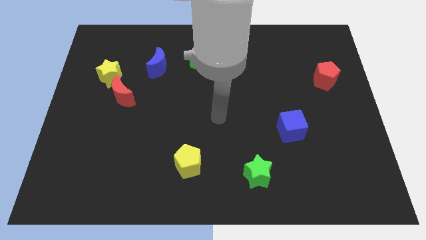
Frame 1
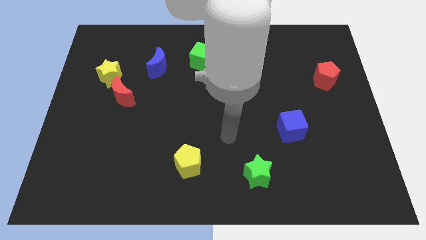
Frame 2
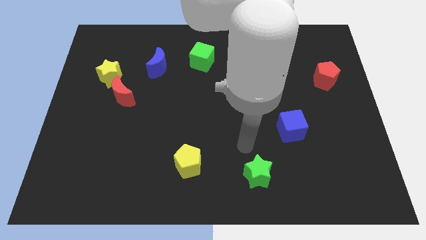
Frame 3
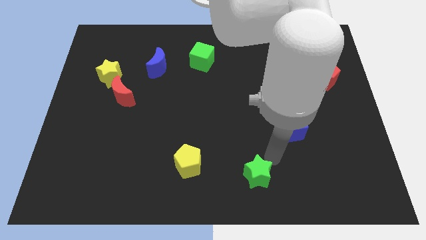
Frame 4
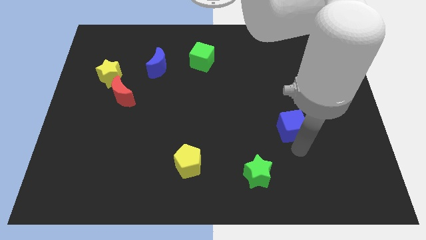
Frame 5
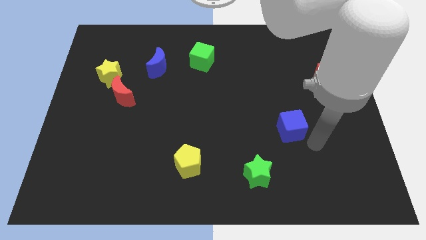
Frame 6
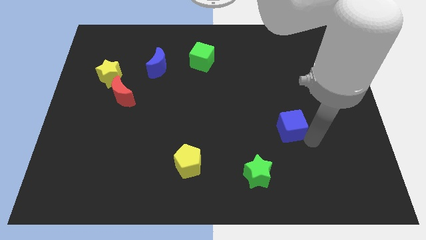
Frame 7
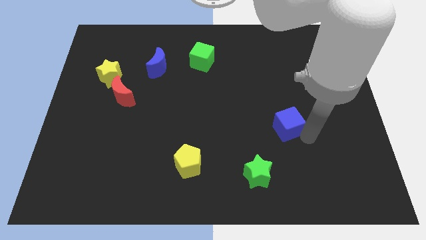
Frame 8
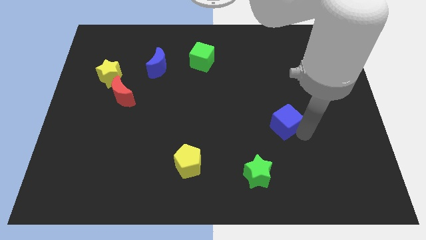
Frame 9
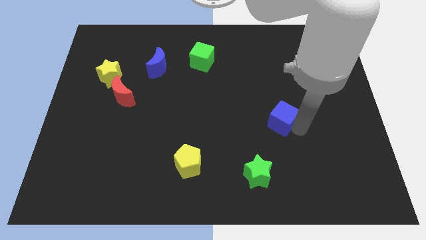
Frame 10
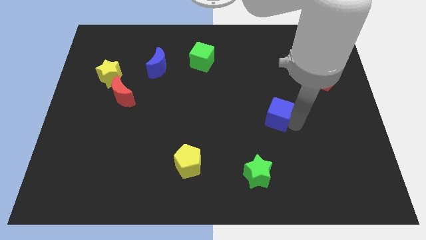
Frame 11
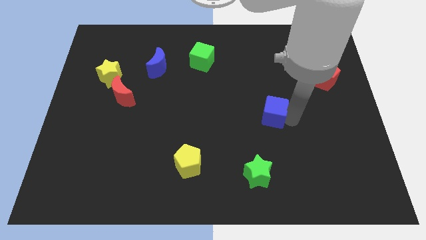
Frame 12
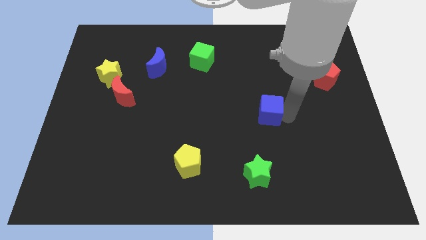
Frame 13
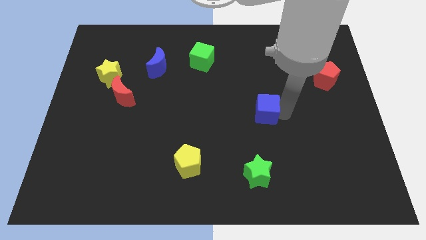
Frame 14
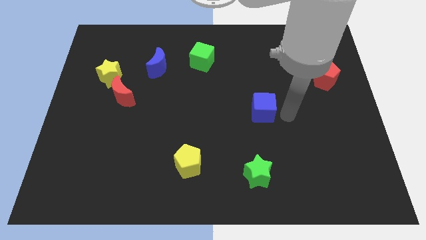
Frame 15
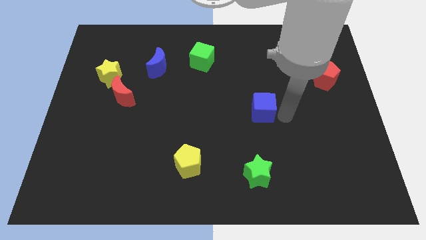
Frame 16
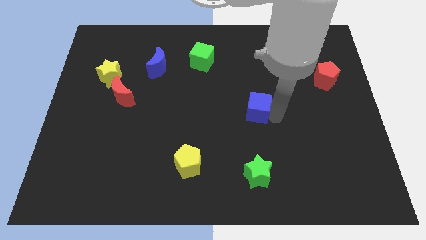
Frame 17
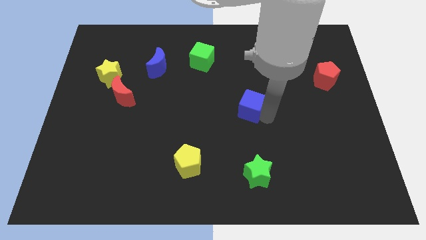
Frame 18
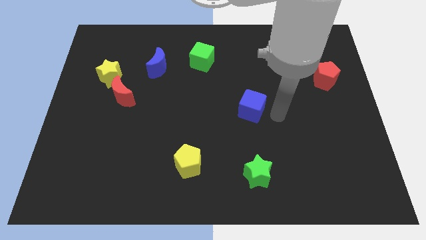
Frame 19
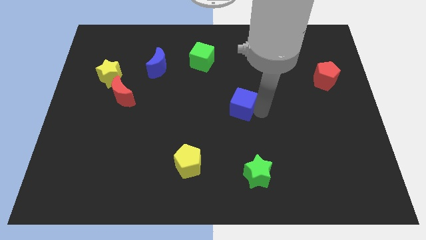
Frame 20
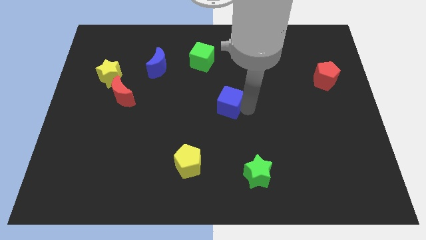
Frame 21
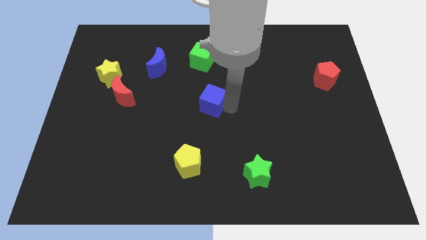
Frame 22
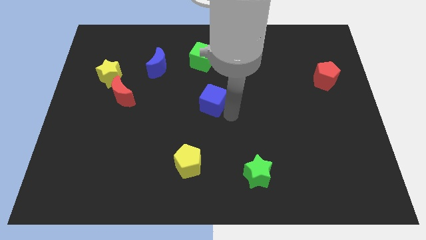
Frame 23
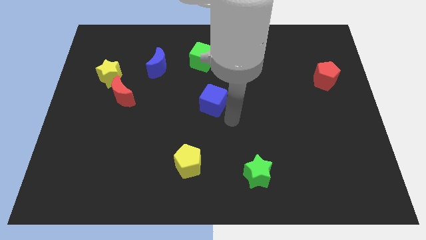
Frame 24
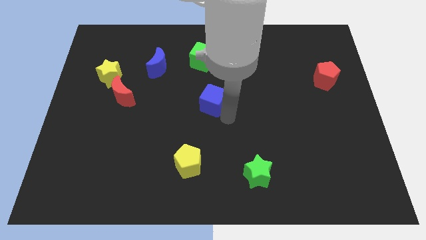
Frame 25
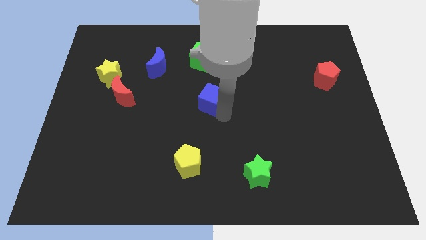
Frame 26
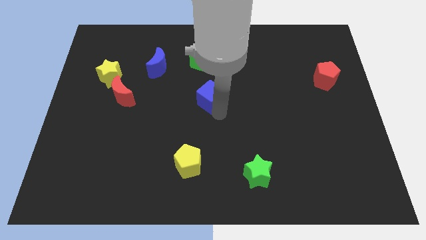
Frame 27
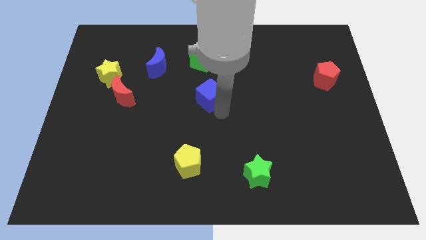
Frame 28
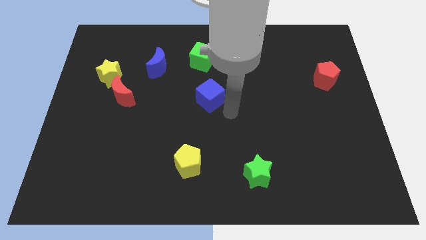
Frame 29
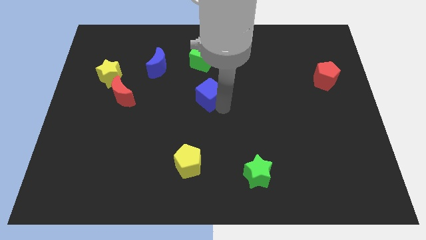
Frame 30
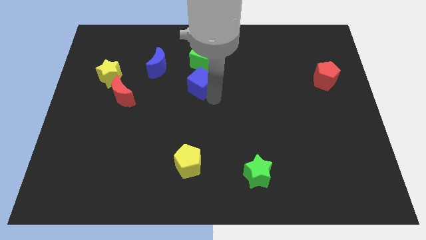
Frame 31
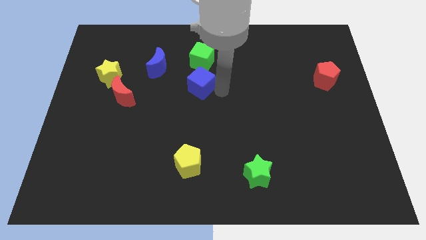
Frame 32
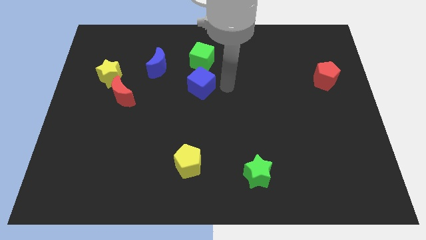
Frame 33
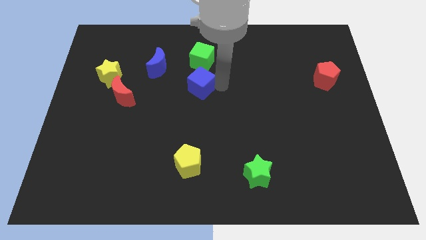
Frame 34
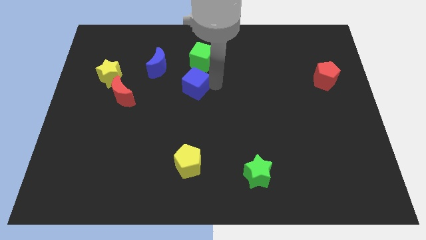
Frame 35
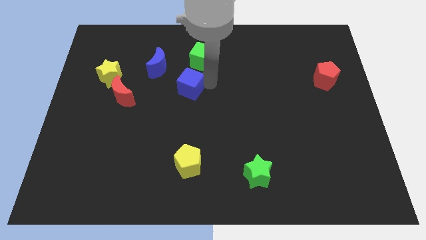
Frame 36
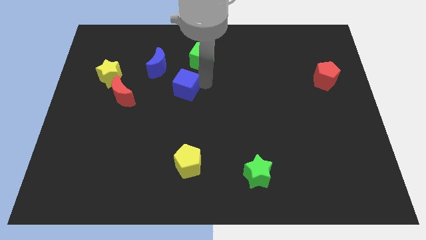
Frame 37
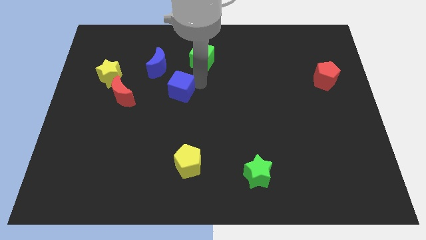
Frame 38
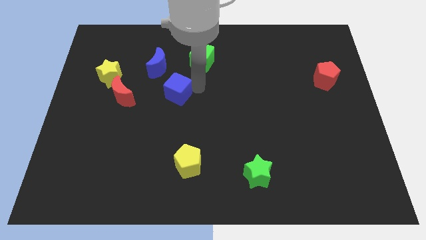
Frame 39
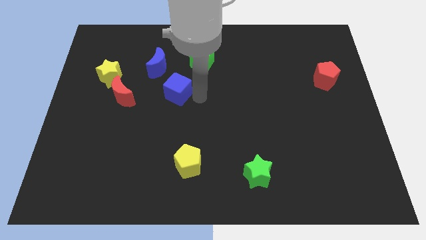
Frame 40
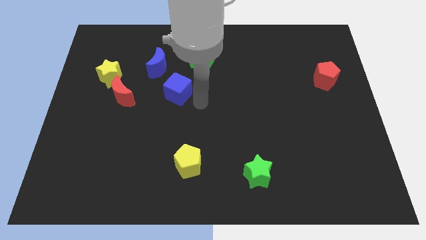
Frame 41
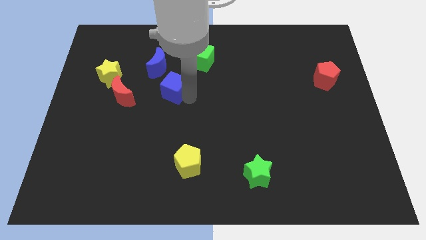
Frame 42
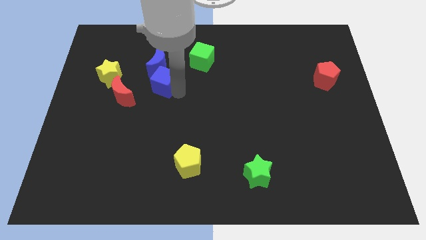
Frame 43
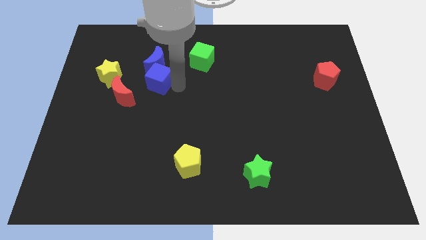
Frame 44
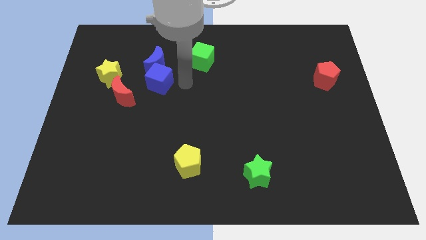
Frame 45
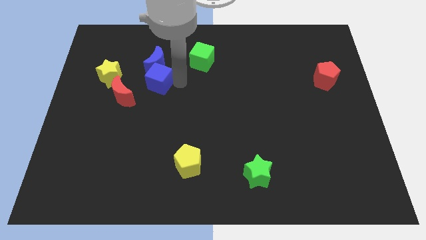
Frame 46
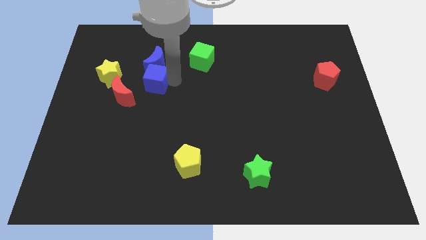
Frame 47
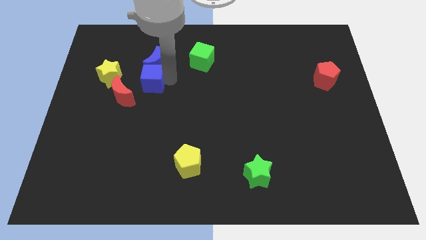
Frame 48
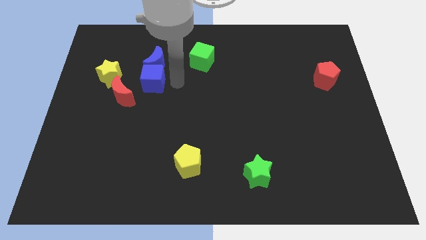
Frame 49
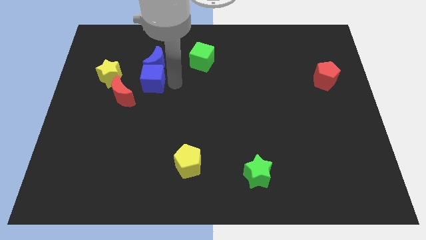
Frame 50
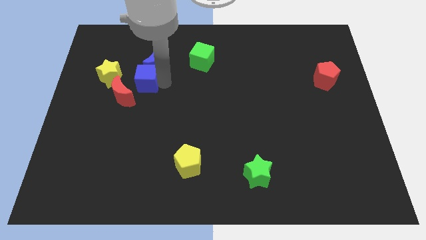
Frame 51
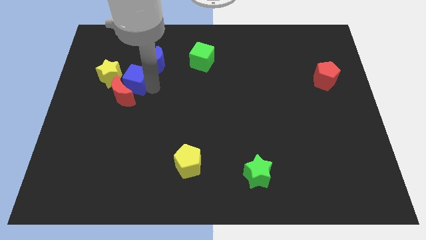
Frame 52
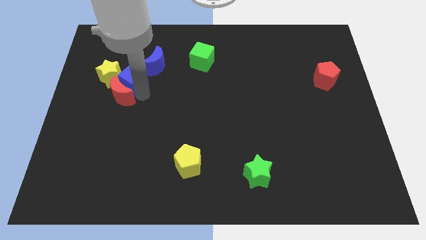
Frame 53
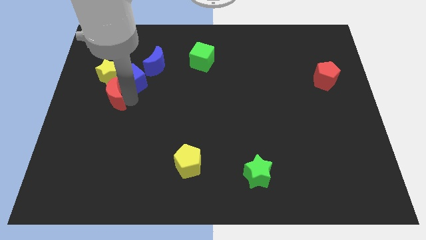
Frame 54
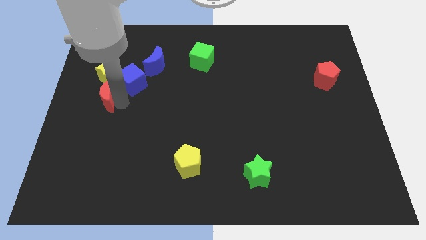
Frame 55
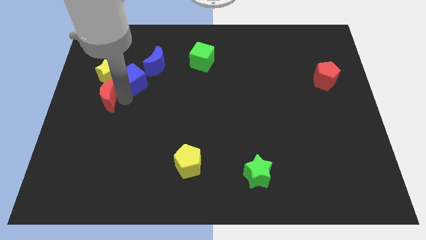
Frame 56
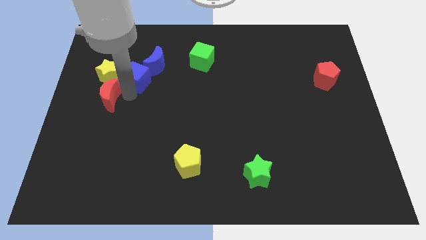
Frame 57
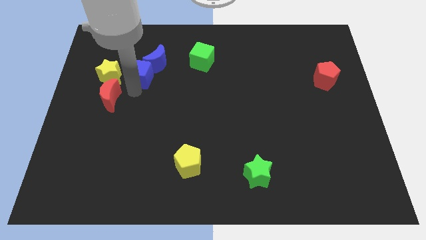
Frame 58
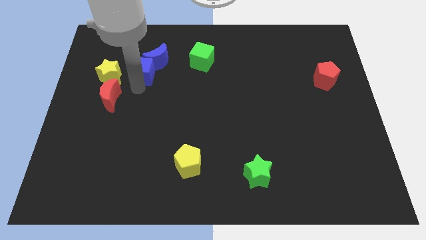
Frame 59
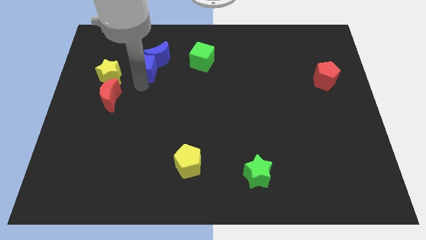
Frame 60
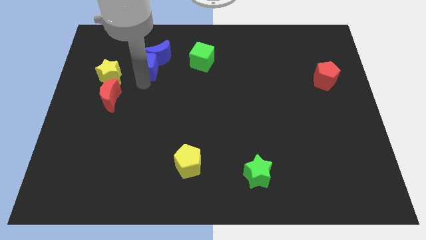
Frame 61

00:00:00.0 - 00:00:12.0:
move the blue cube to the left side of the green cube

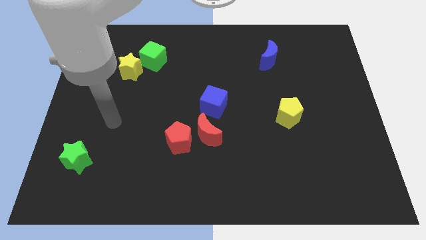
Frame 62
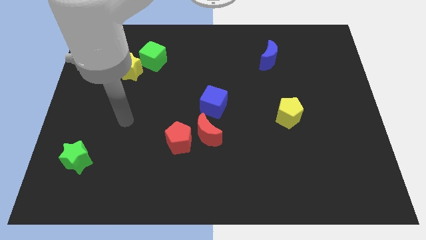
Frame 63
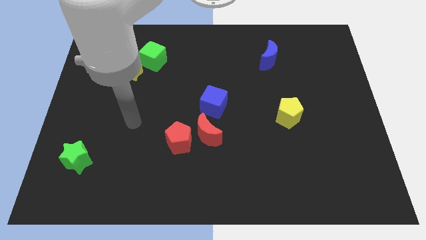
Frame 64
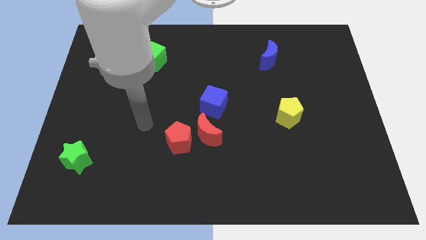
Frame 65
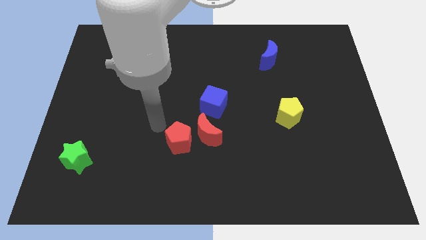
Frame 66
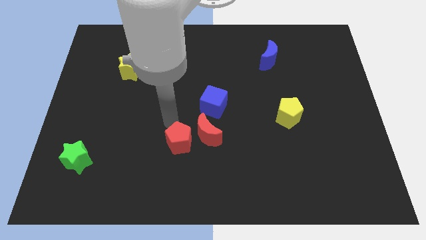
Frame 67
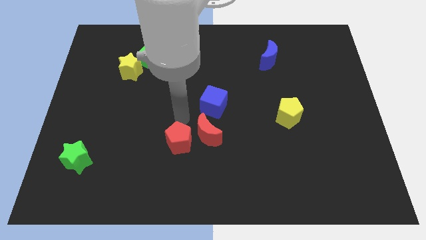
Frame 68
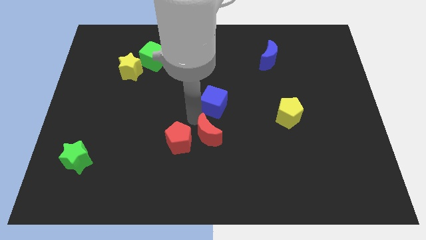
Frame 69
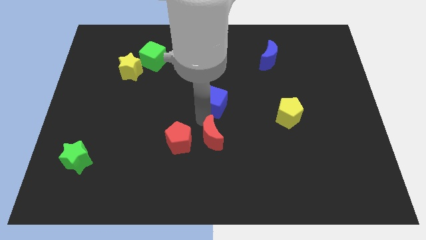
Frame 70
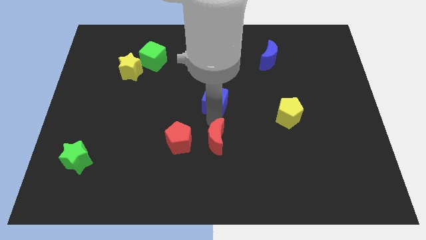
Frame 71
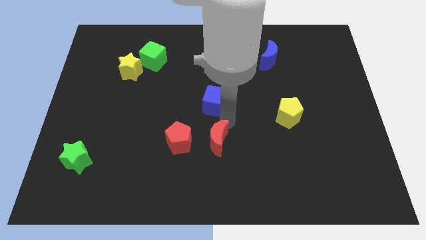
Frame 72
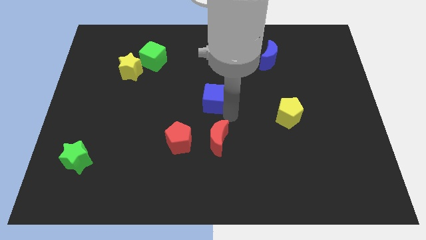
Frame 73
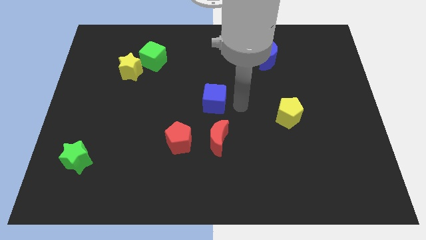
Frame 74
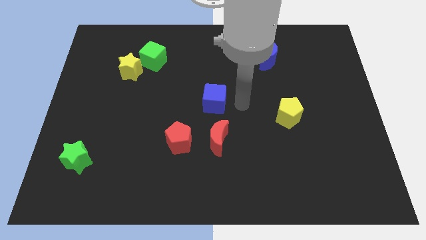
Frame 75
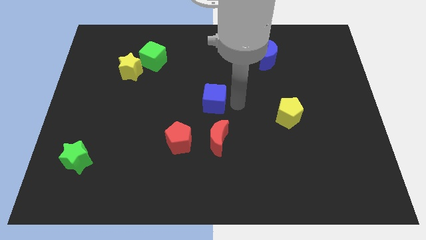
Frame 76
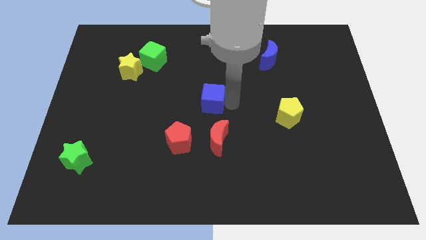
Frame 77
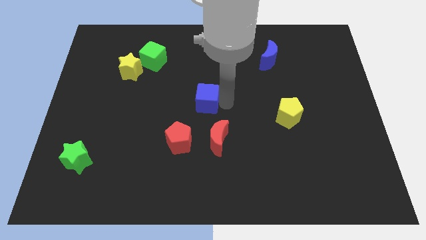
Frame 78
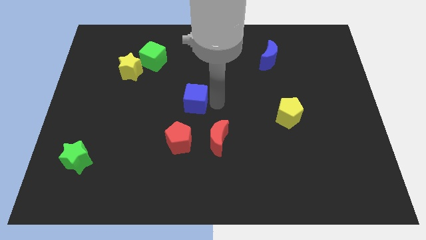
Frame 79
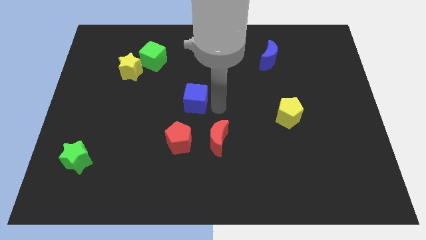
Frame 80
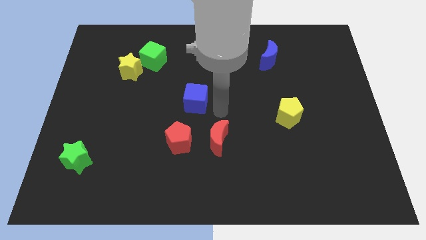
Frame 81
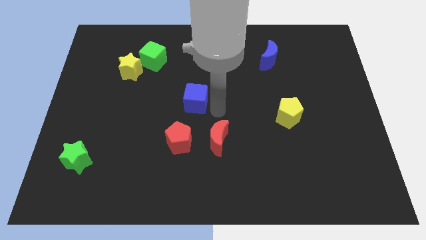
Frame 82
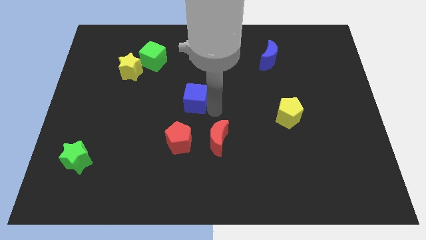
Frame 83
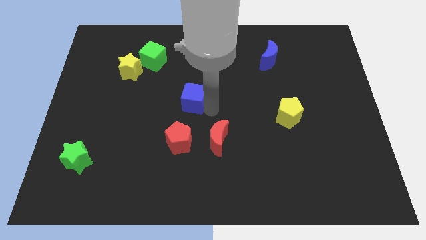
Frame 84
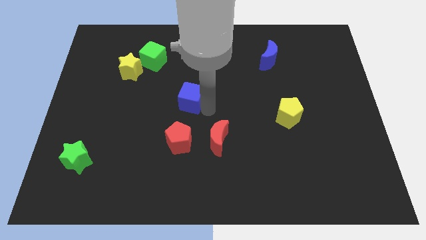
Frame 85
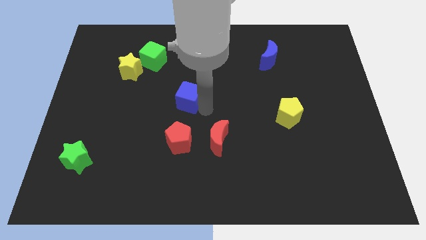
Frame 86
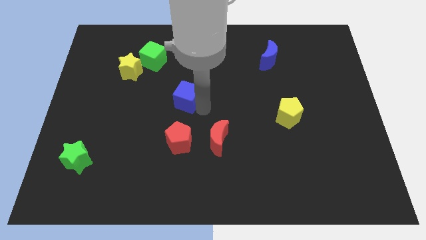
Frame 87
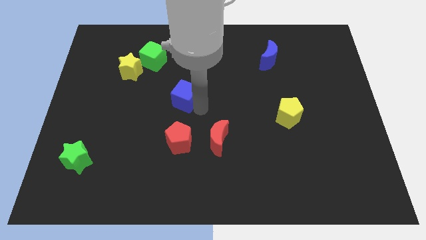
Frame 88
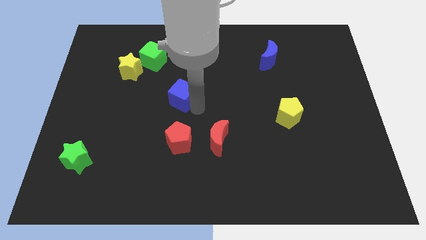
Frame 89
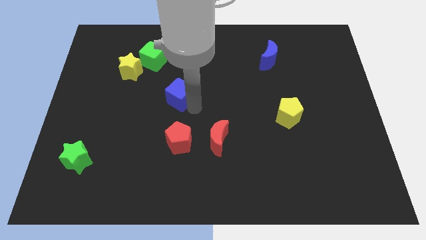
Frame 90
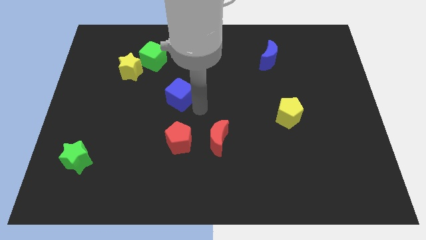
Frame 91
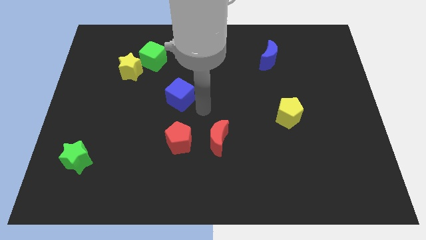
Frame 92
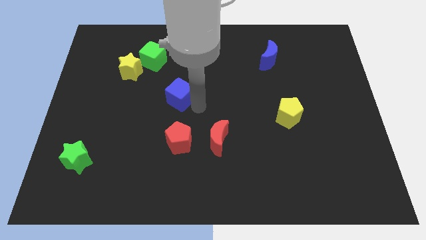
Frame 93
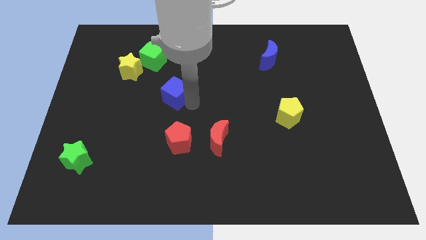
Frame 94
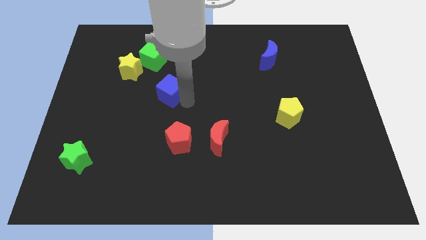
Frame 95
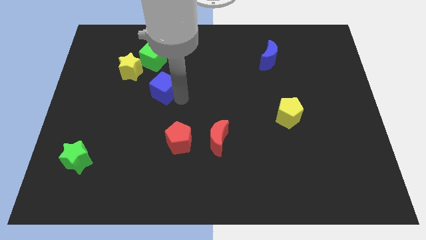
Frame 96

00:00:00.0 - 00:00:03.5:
put the blue cube to the bottom right of the yellow star
